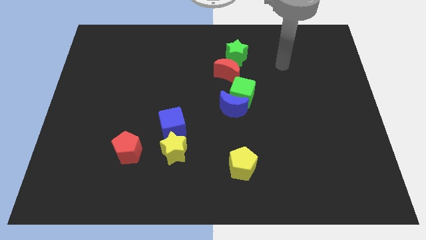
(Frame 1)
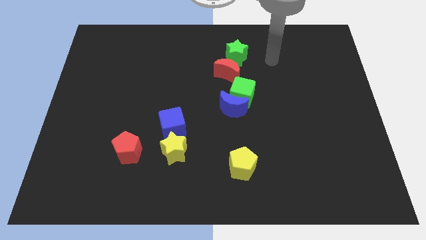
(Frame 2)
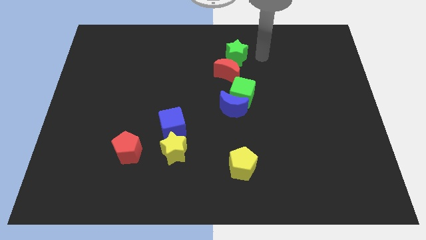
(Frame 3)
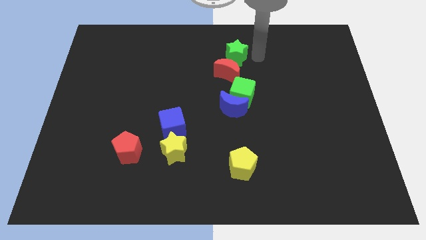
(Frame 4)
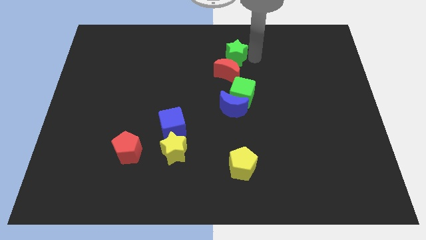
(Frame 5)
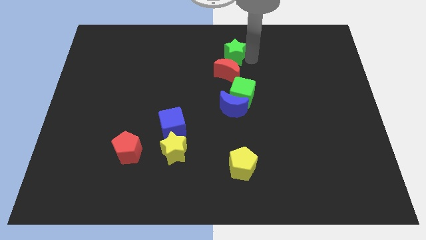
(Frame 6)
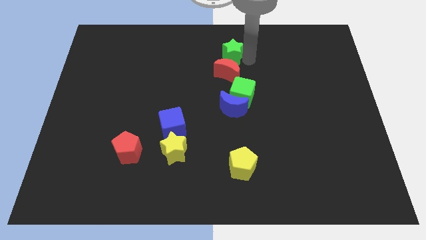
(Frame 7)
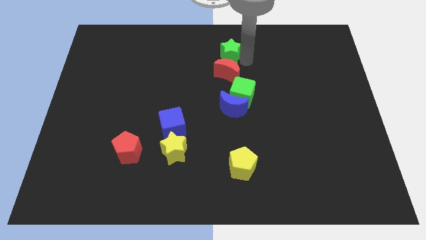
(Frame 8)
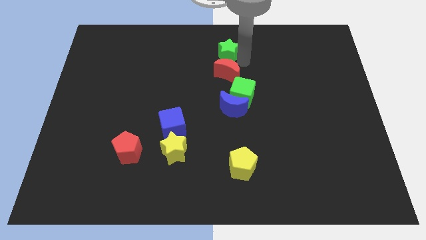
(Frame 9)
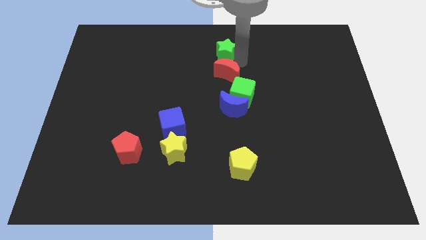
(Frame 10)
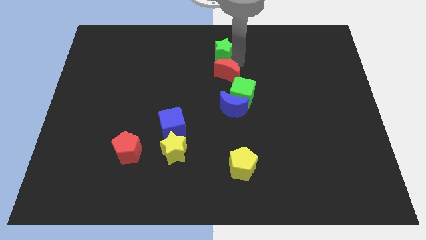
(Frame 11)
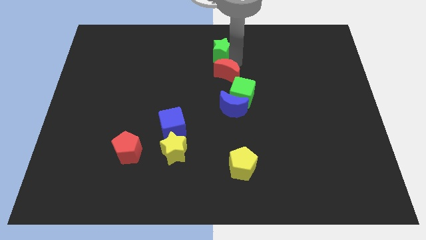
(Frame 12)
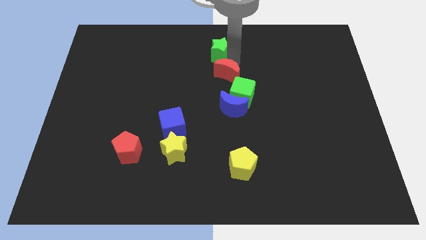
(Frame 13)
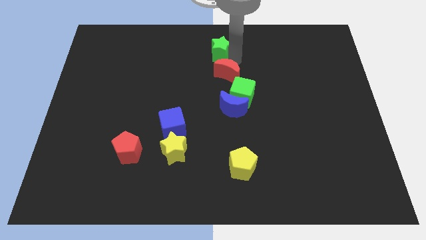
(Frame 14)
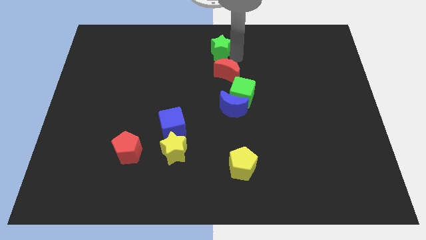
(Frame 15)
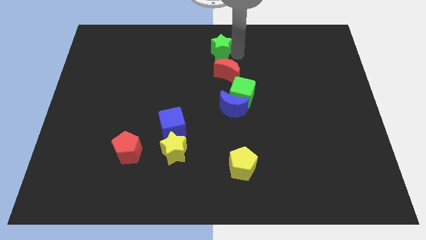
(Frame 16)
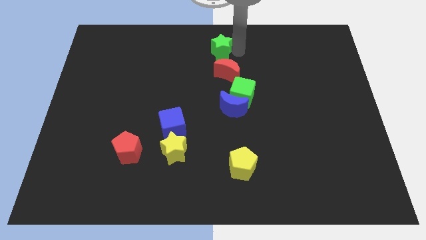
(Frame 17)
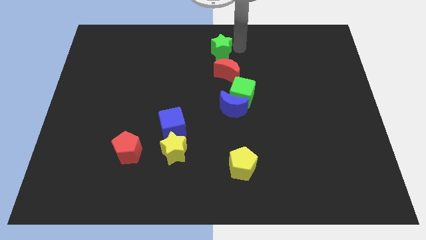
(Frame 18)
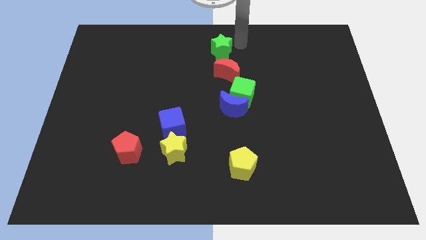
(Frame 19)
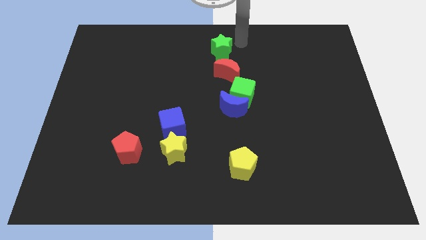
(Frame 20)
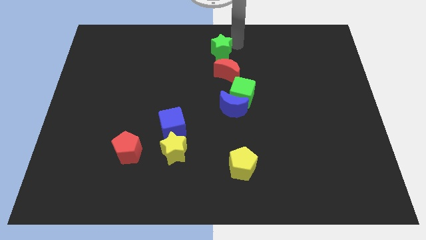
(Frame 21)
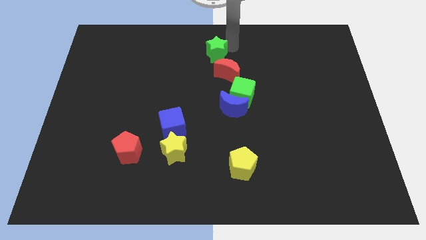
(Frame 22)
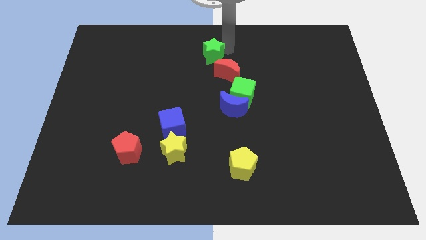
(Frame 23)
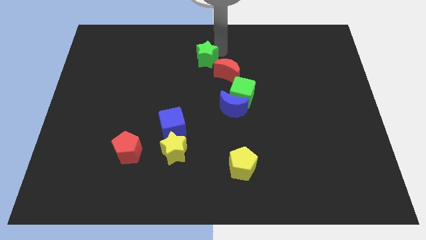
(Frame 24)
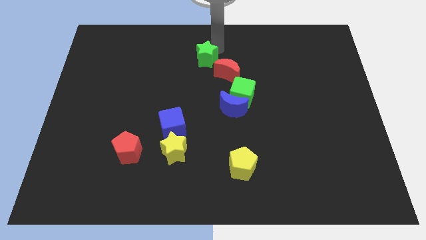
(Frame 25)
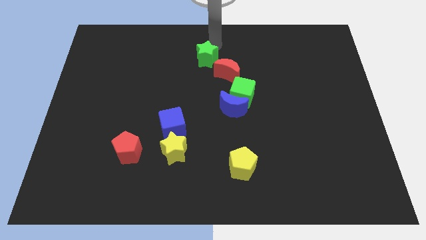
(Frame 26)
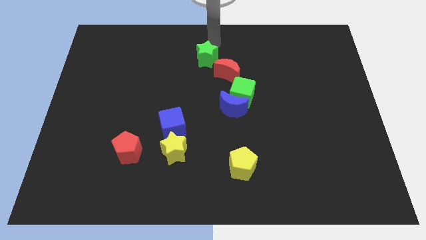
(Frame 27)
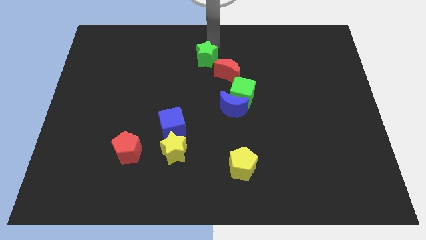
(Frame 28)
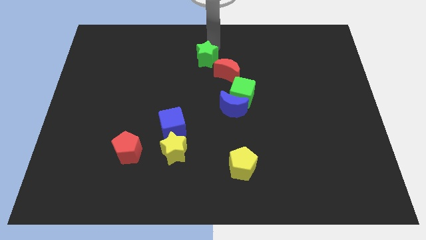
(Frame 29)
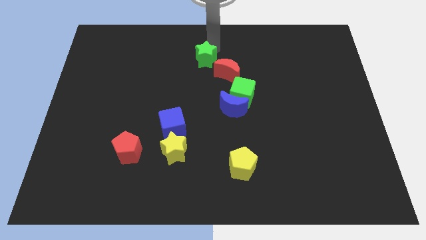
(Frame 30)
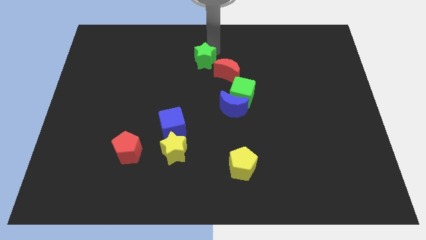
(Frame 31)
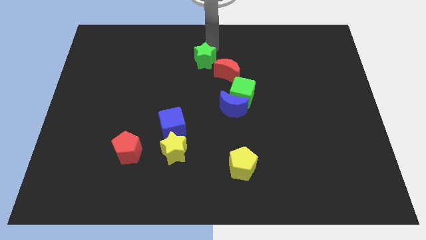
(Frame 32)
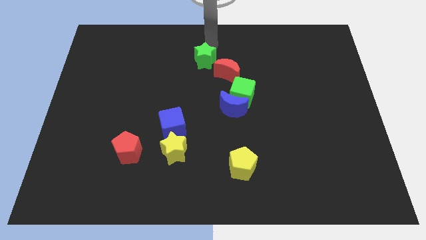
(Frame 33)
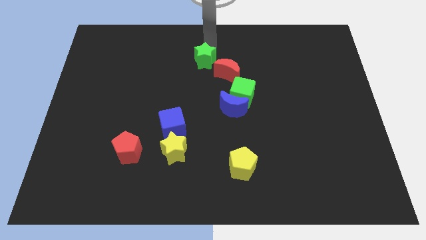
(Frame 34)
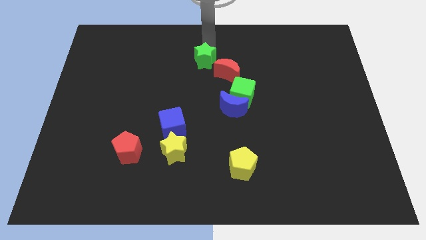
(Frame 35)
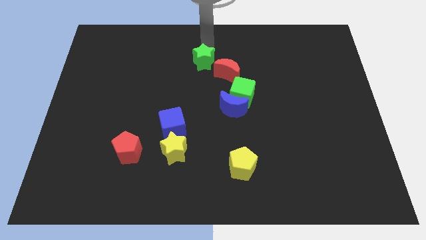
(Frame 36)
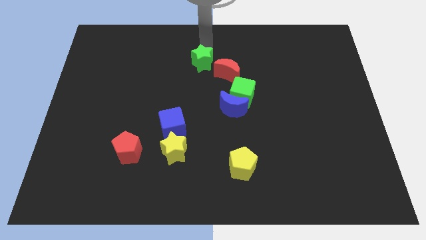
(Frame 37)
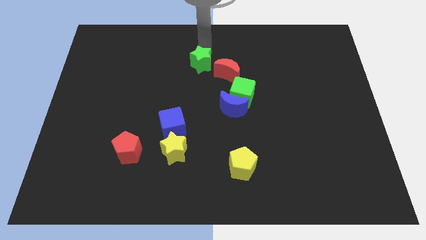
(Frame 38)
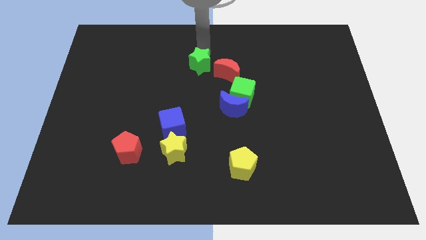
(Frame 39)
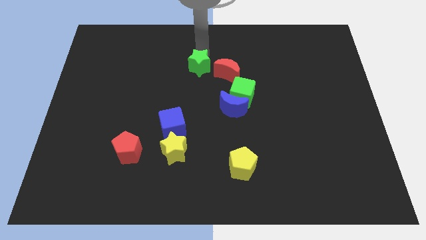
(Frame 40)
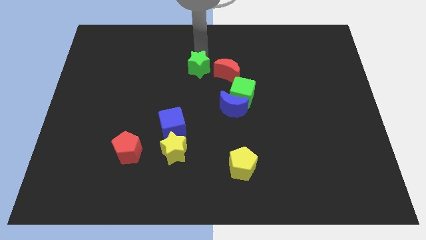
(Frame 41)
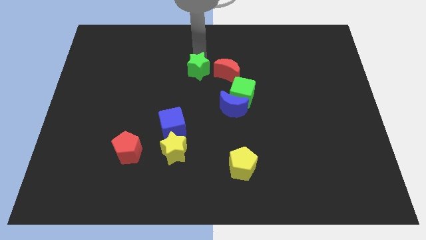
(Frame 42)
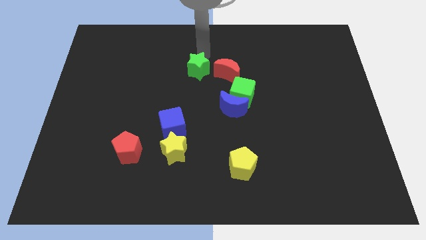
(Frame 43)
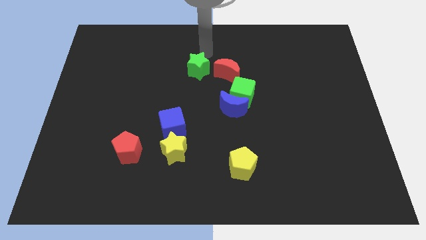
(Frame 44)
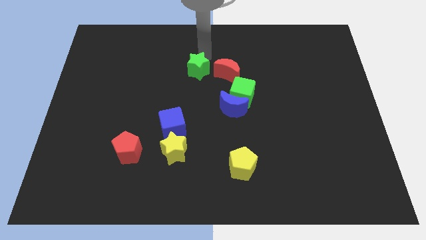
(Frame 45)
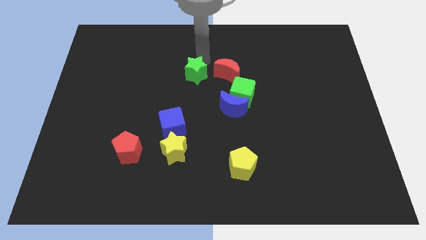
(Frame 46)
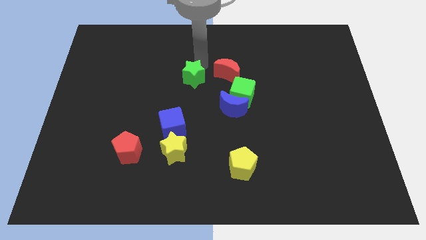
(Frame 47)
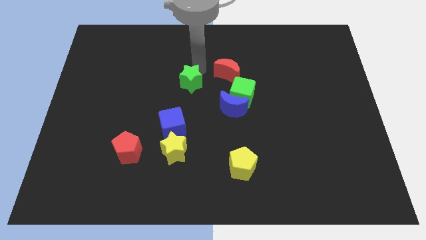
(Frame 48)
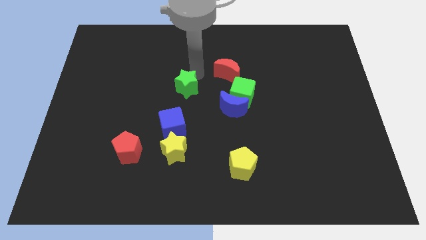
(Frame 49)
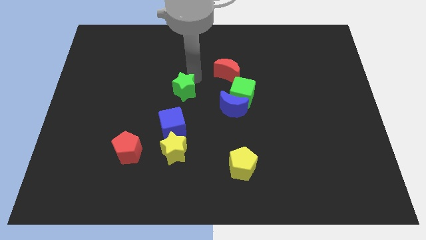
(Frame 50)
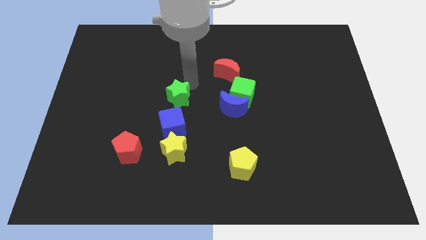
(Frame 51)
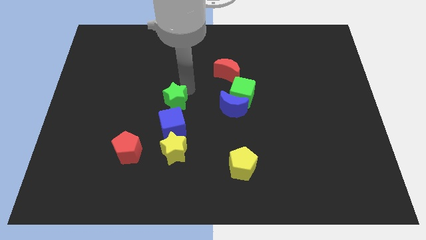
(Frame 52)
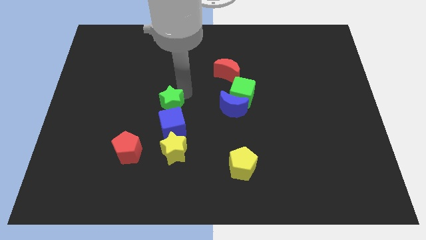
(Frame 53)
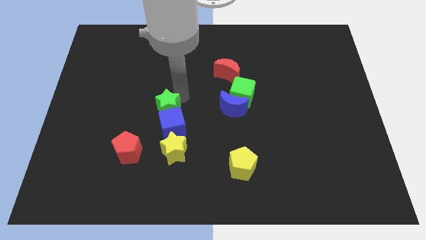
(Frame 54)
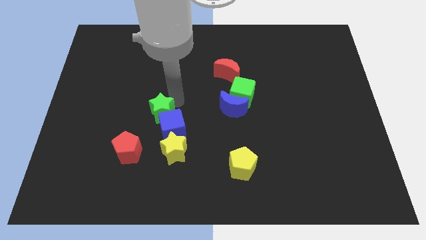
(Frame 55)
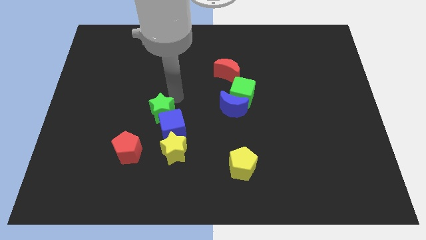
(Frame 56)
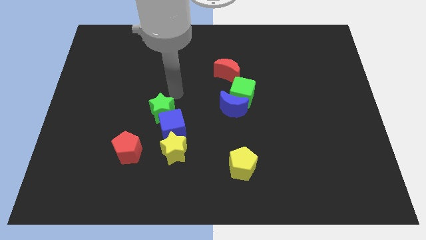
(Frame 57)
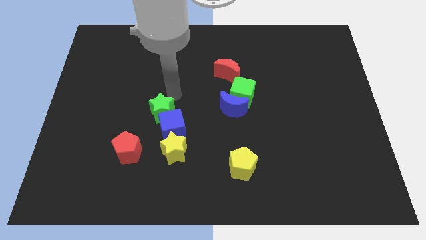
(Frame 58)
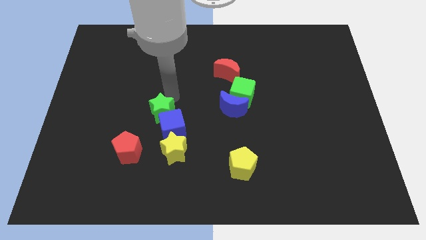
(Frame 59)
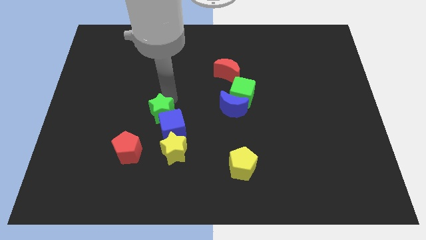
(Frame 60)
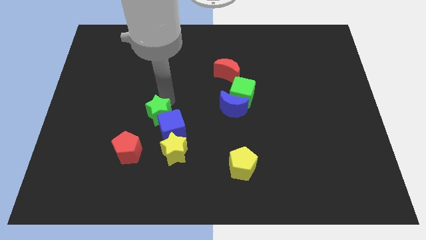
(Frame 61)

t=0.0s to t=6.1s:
put the green star diagonally up and to the left of the yellow star
